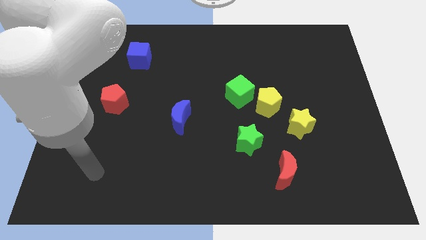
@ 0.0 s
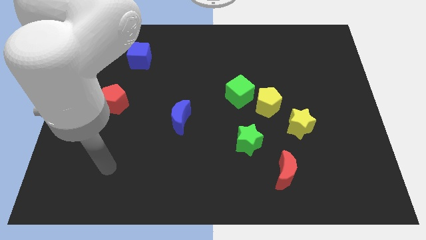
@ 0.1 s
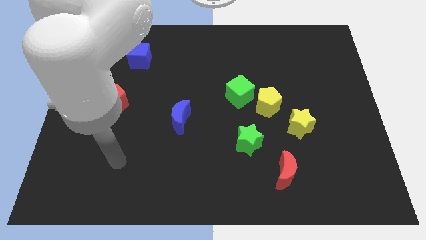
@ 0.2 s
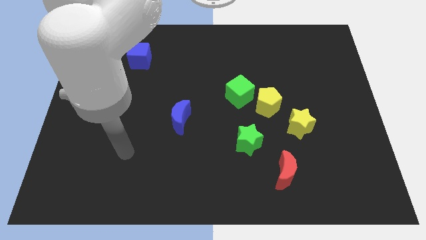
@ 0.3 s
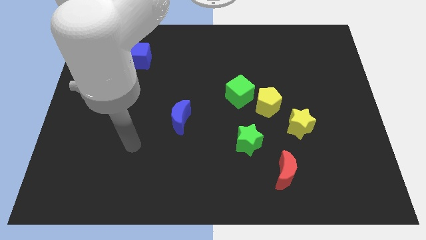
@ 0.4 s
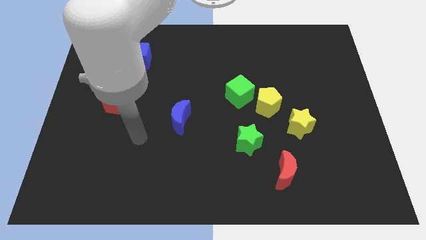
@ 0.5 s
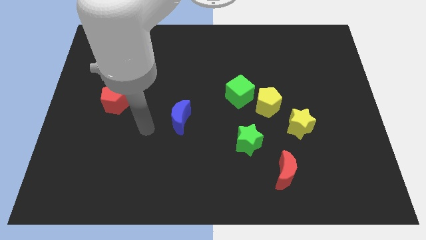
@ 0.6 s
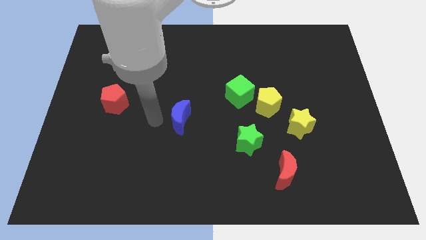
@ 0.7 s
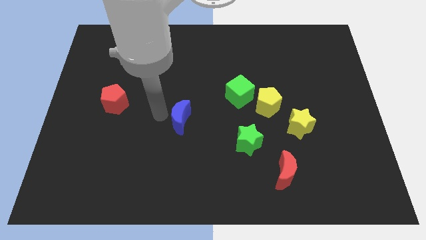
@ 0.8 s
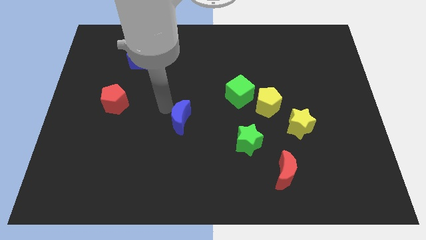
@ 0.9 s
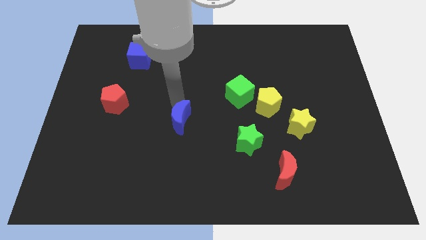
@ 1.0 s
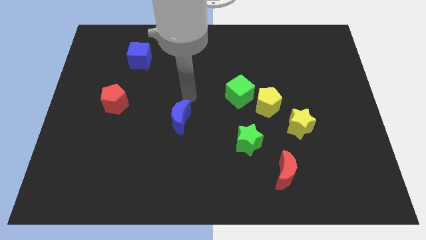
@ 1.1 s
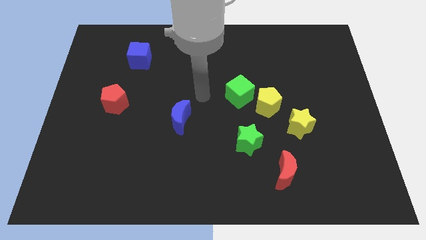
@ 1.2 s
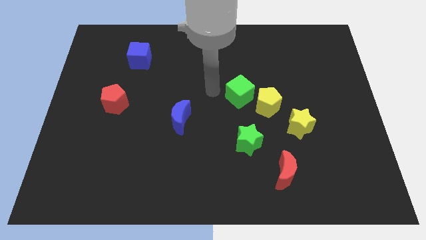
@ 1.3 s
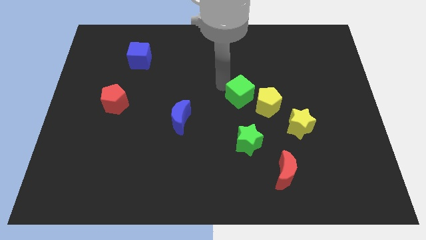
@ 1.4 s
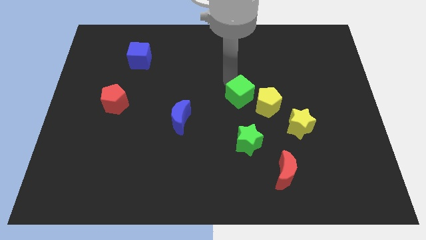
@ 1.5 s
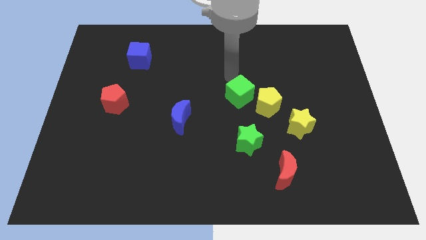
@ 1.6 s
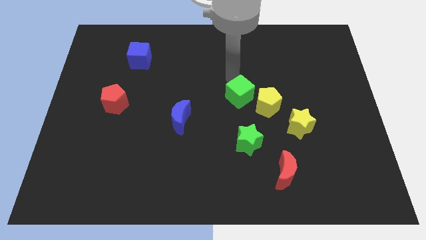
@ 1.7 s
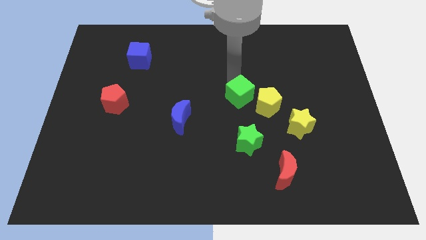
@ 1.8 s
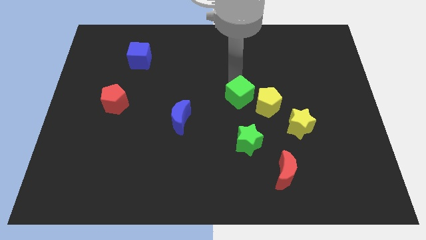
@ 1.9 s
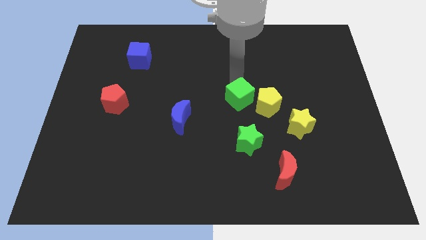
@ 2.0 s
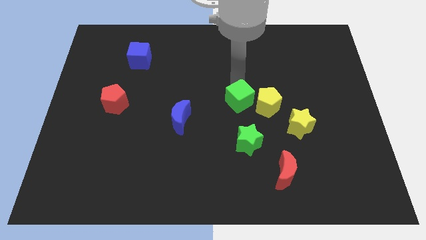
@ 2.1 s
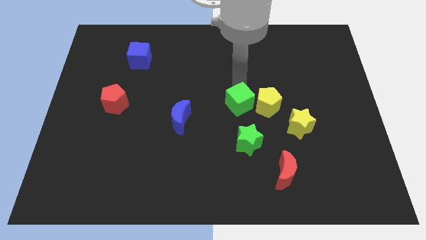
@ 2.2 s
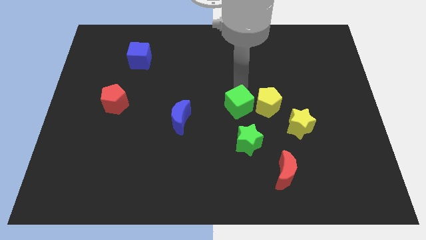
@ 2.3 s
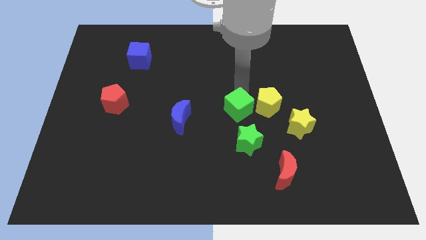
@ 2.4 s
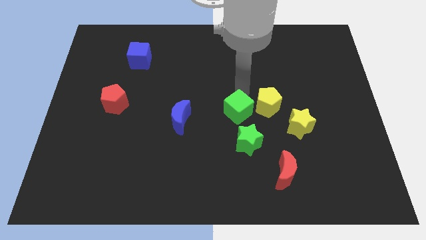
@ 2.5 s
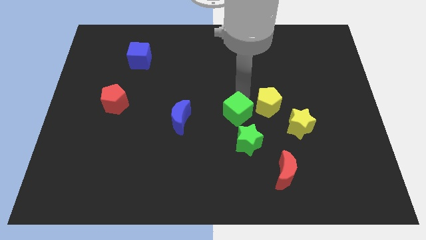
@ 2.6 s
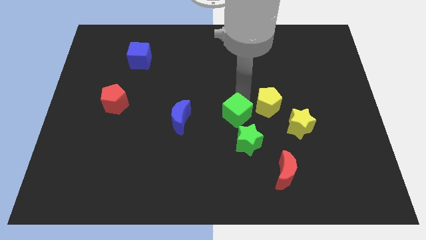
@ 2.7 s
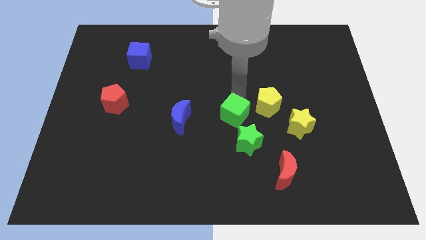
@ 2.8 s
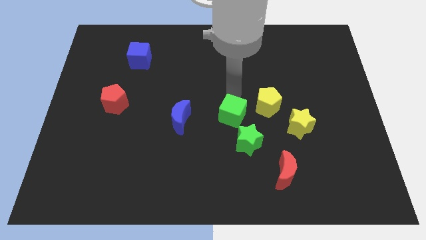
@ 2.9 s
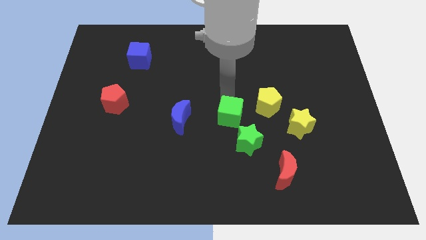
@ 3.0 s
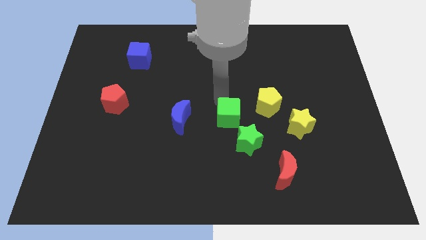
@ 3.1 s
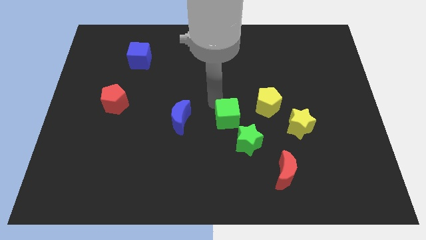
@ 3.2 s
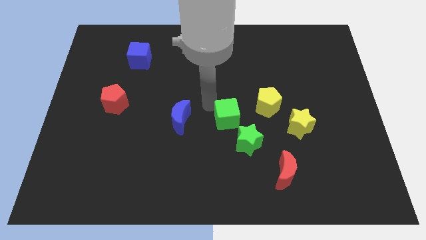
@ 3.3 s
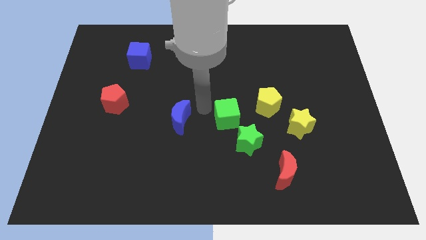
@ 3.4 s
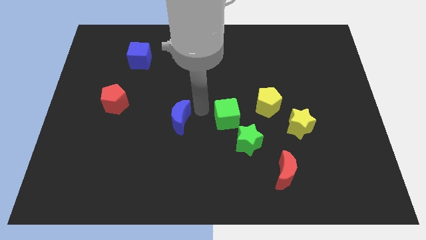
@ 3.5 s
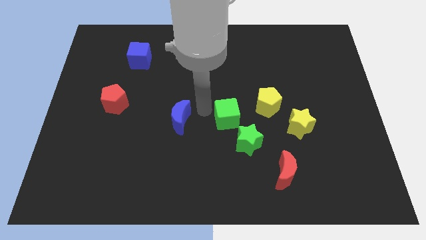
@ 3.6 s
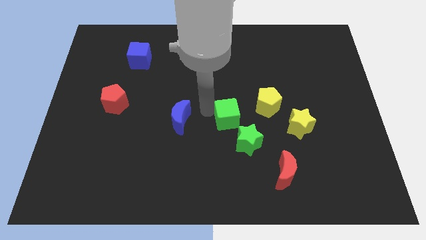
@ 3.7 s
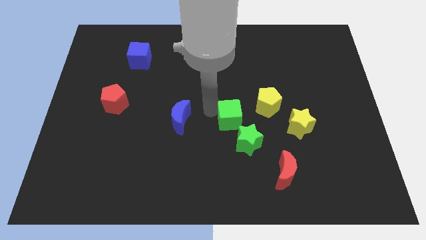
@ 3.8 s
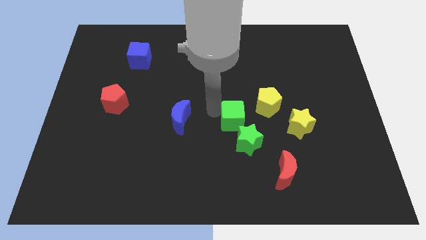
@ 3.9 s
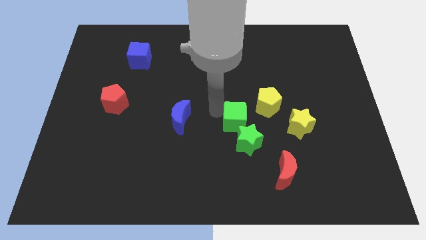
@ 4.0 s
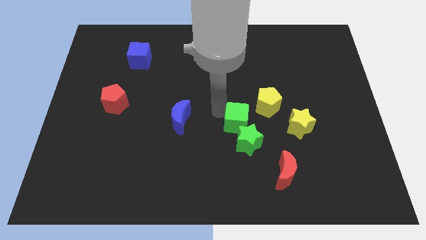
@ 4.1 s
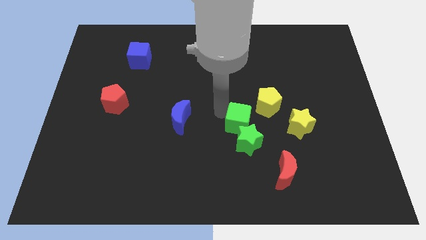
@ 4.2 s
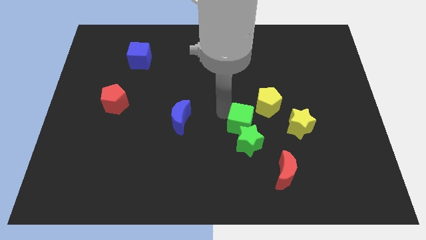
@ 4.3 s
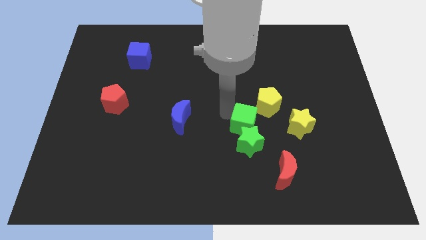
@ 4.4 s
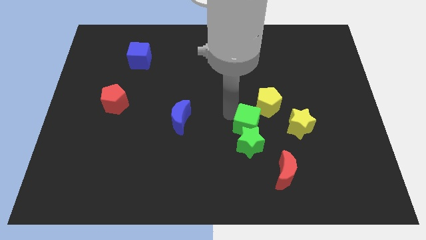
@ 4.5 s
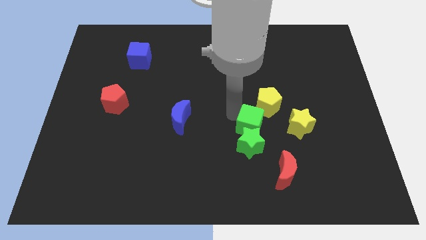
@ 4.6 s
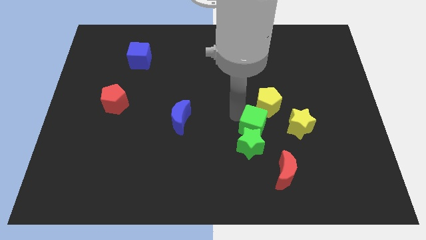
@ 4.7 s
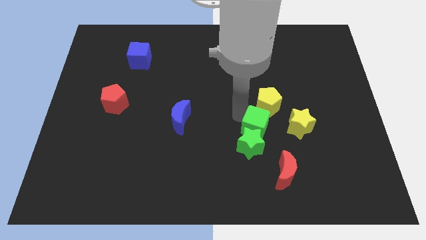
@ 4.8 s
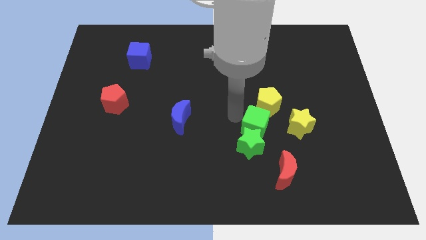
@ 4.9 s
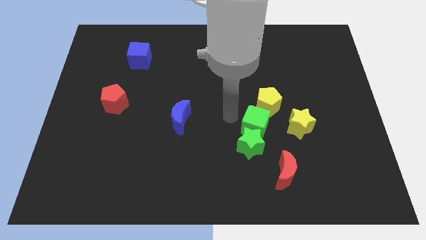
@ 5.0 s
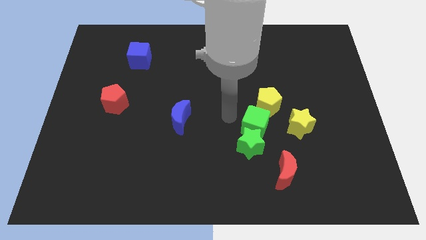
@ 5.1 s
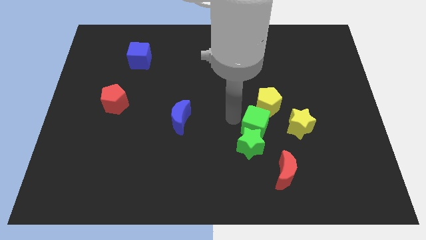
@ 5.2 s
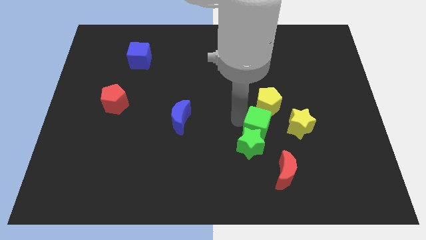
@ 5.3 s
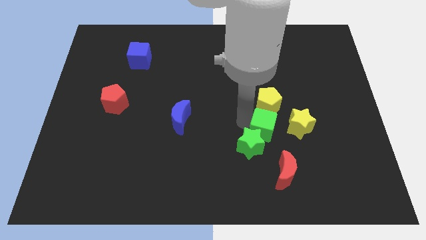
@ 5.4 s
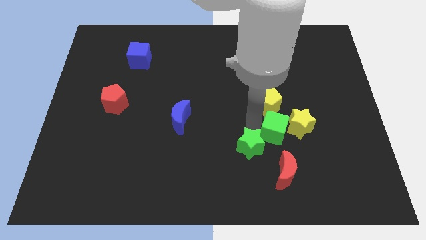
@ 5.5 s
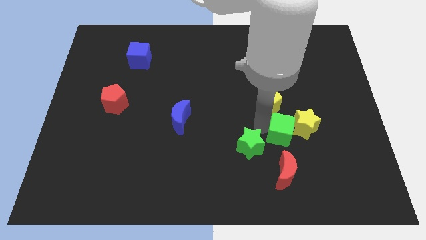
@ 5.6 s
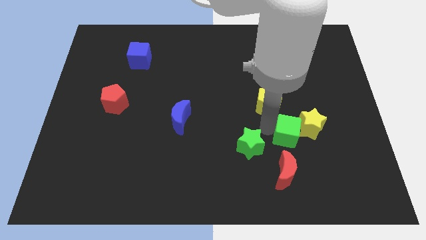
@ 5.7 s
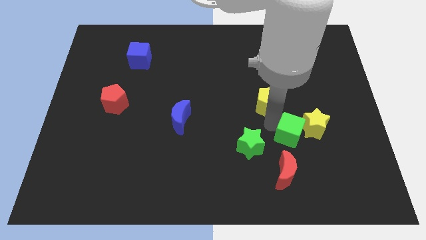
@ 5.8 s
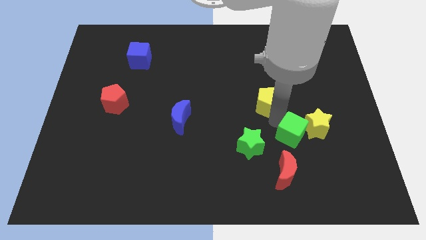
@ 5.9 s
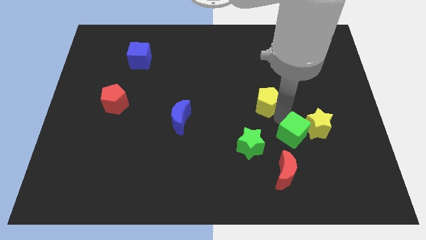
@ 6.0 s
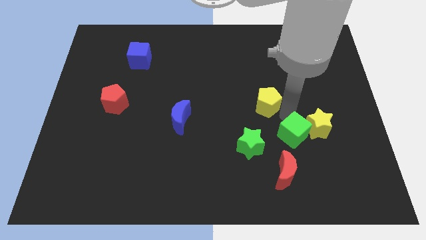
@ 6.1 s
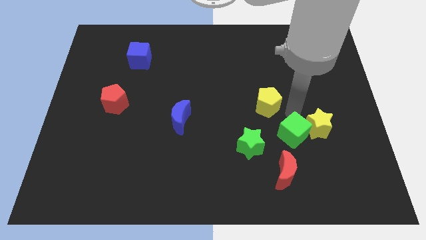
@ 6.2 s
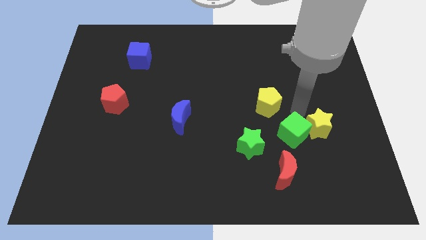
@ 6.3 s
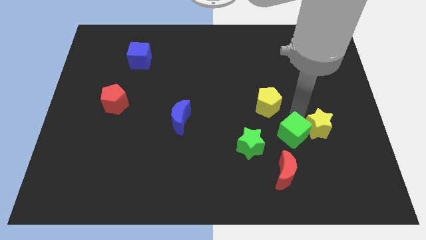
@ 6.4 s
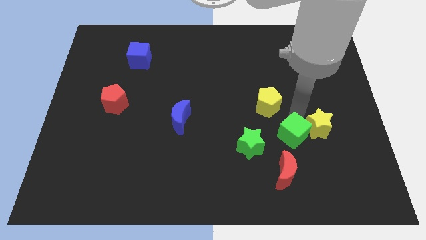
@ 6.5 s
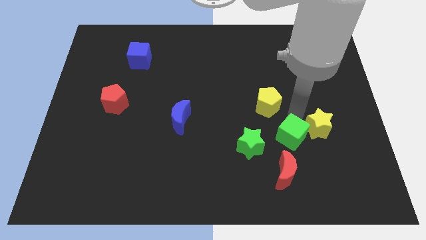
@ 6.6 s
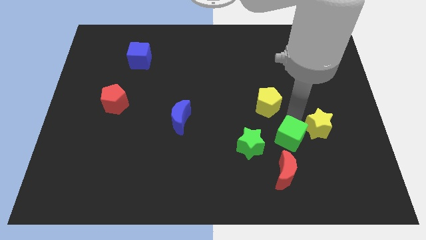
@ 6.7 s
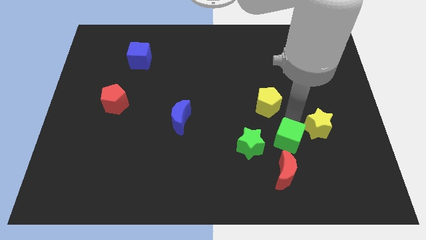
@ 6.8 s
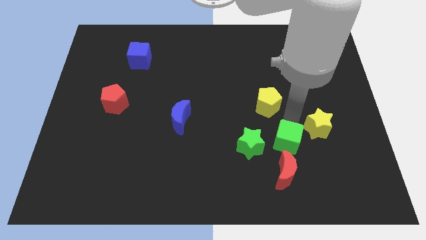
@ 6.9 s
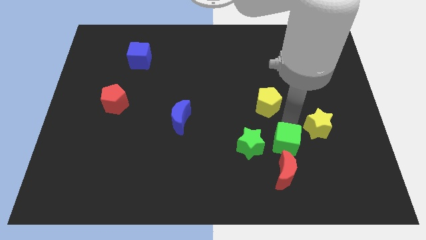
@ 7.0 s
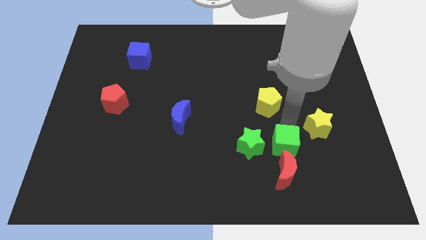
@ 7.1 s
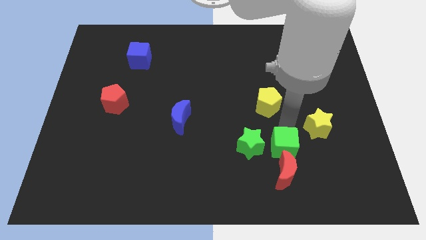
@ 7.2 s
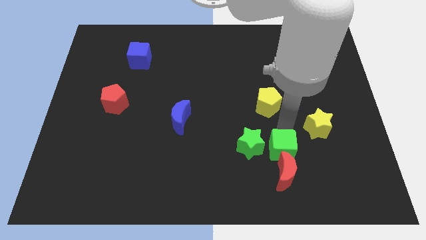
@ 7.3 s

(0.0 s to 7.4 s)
push the green cube next to the red moon

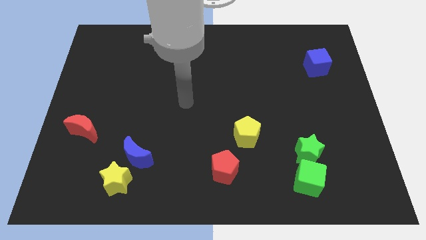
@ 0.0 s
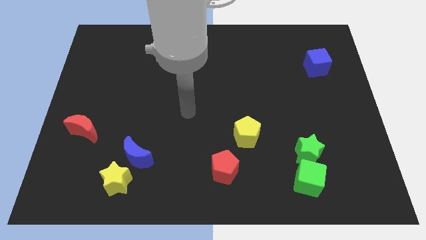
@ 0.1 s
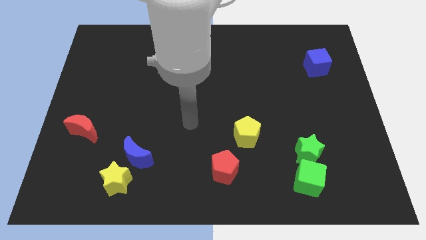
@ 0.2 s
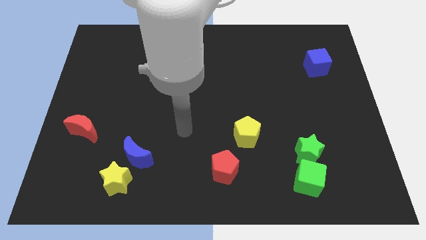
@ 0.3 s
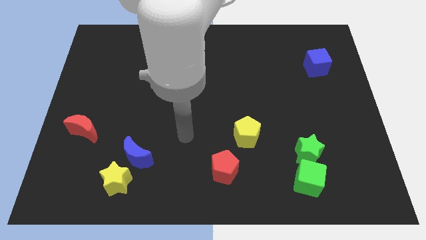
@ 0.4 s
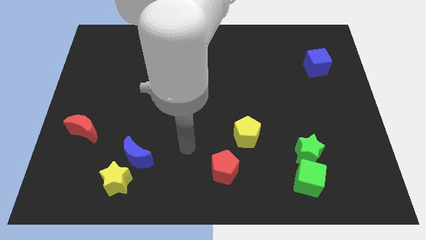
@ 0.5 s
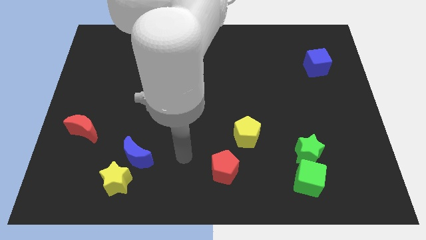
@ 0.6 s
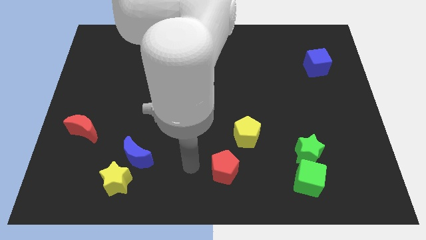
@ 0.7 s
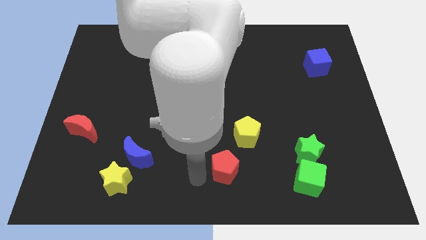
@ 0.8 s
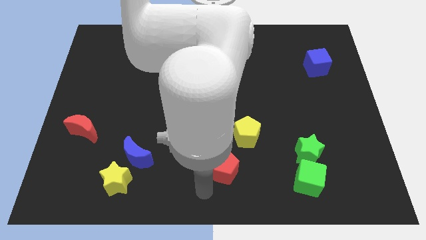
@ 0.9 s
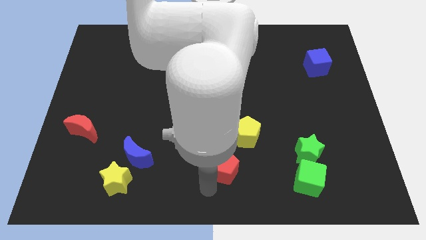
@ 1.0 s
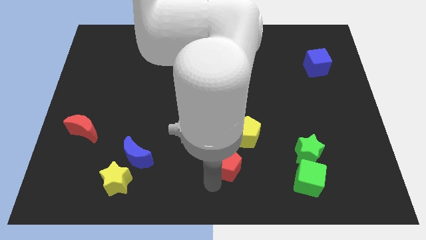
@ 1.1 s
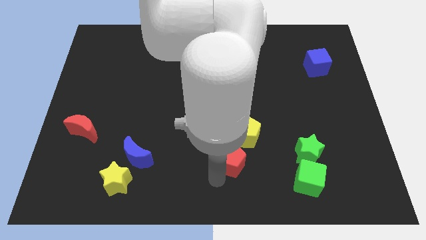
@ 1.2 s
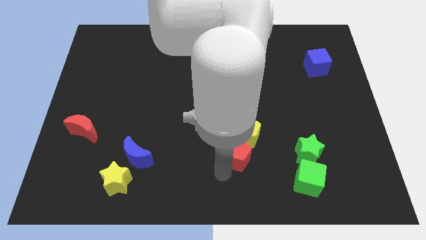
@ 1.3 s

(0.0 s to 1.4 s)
put the red pentagon towards the yellow pentagon
